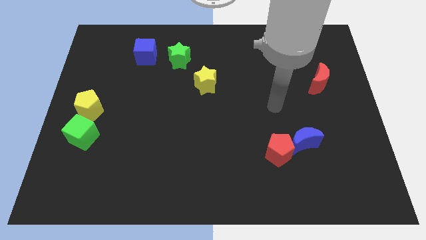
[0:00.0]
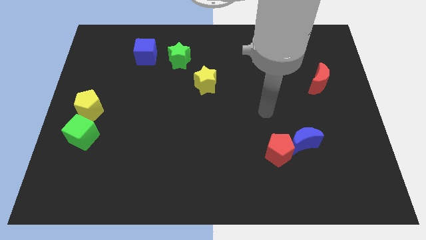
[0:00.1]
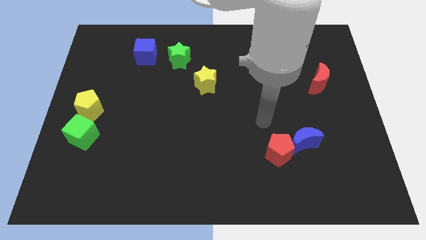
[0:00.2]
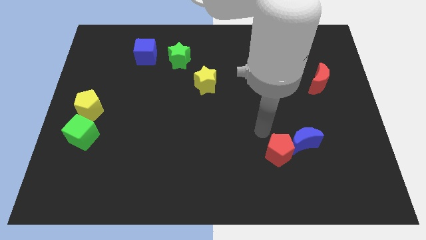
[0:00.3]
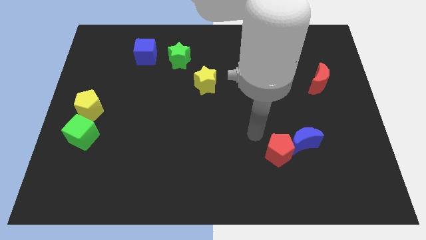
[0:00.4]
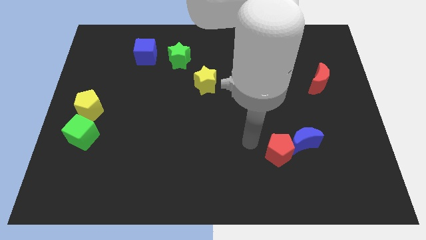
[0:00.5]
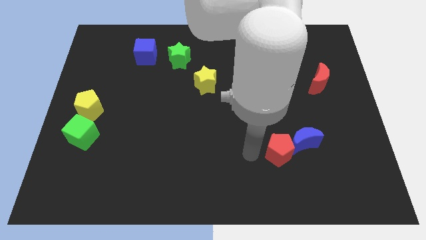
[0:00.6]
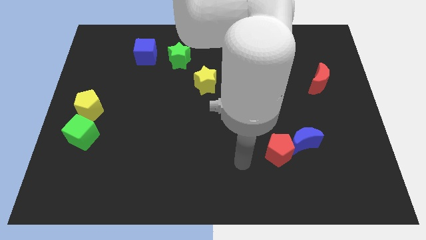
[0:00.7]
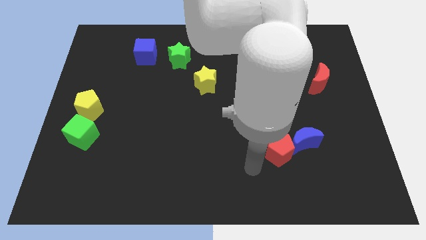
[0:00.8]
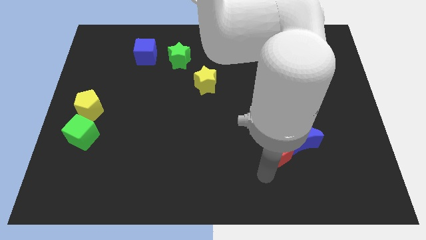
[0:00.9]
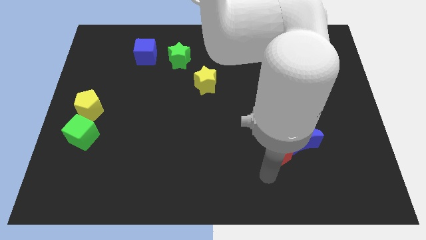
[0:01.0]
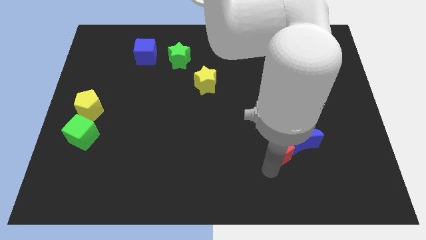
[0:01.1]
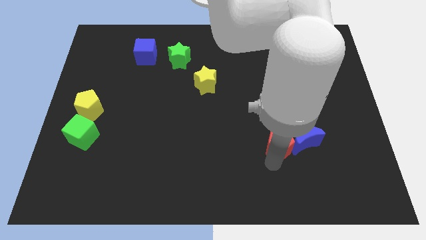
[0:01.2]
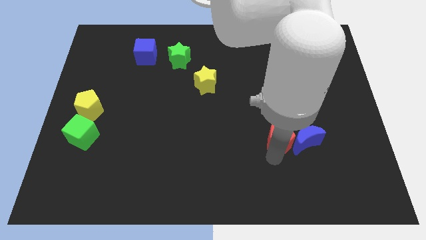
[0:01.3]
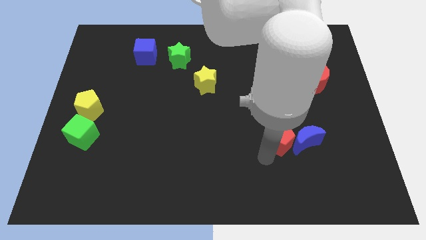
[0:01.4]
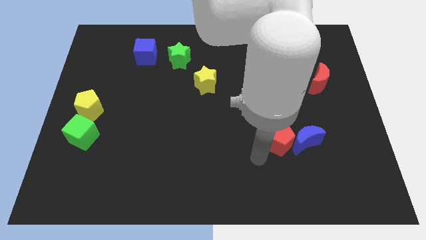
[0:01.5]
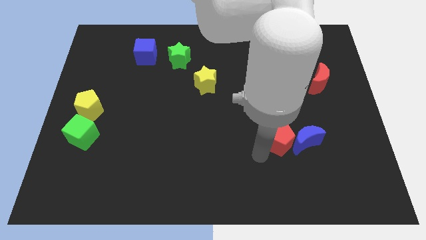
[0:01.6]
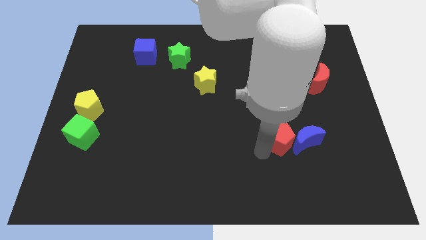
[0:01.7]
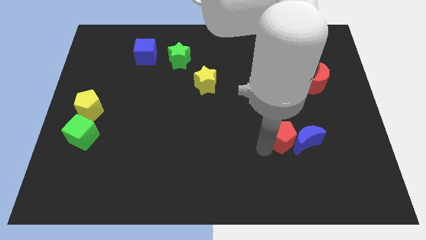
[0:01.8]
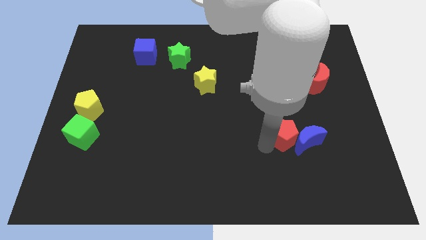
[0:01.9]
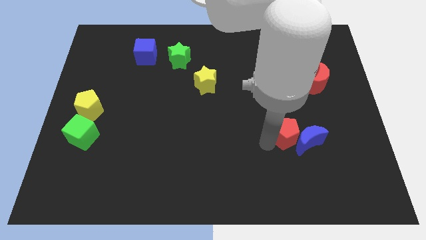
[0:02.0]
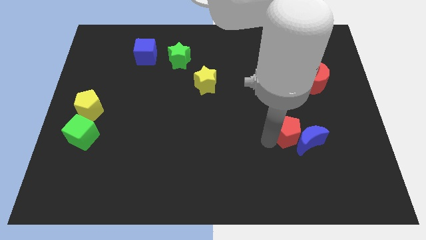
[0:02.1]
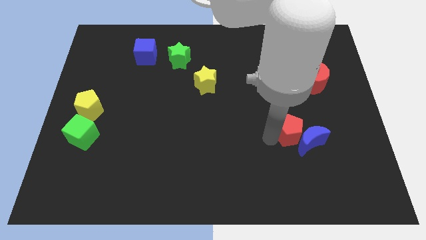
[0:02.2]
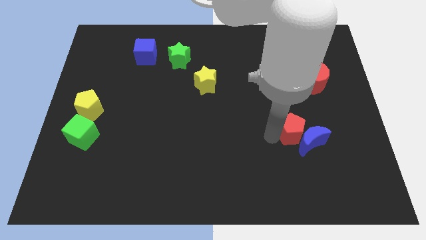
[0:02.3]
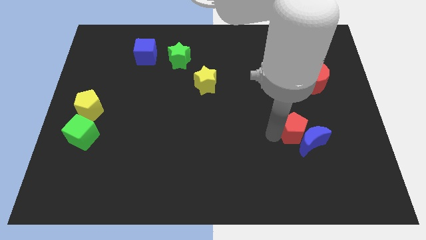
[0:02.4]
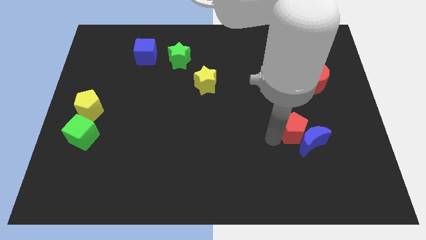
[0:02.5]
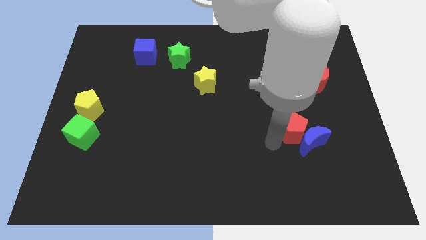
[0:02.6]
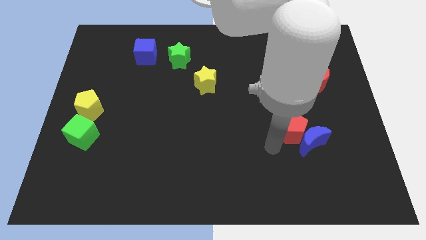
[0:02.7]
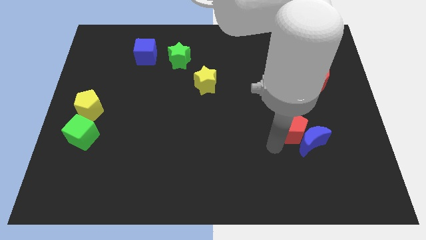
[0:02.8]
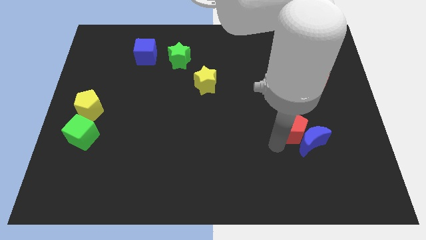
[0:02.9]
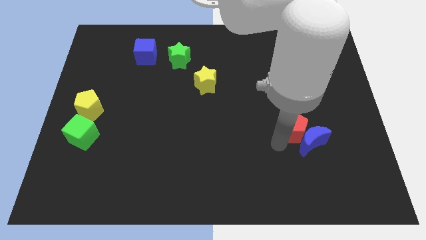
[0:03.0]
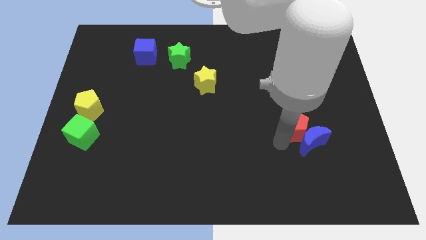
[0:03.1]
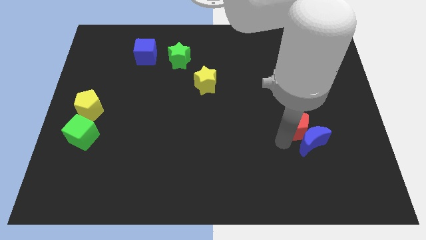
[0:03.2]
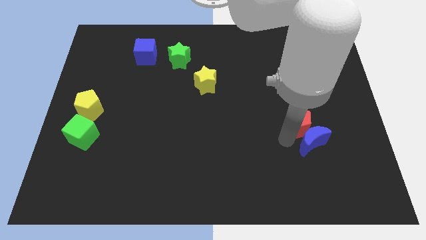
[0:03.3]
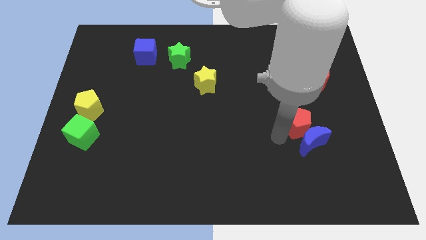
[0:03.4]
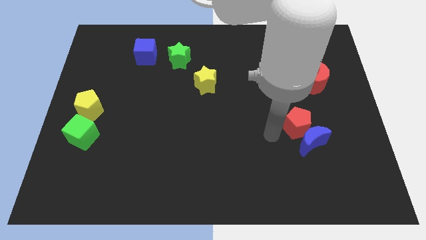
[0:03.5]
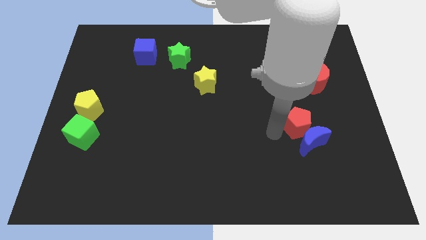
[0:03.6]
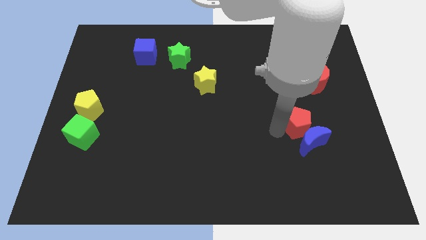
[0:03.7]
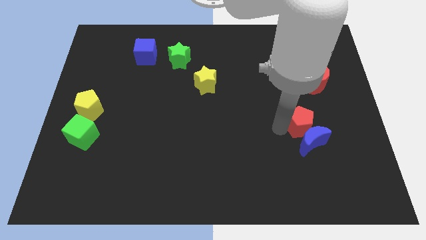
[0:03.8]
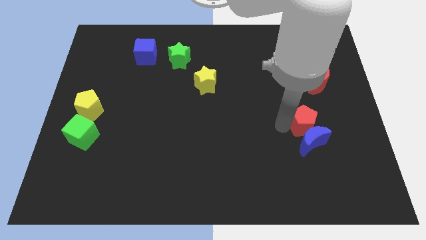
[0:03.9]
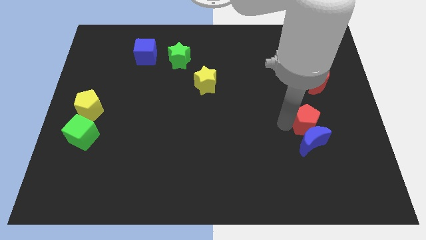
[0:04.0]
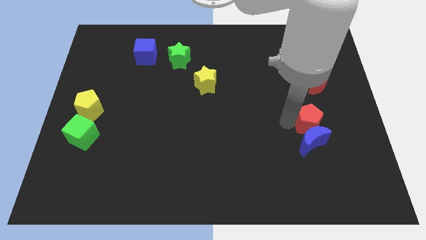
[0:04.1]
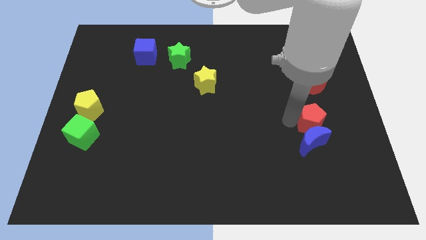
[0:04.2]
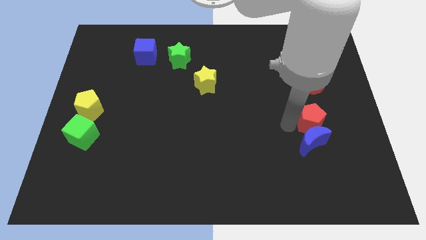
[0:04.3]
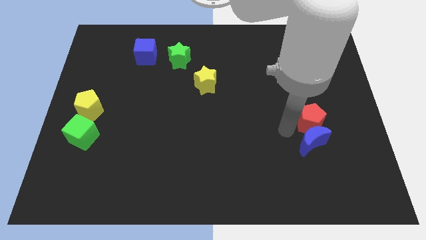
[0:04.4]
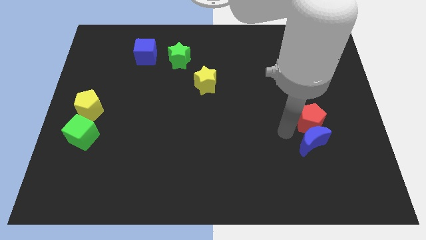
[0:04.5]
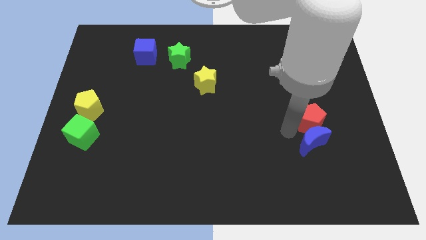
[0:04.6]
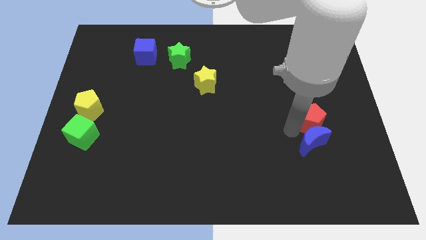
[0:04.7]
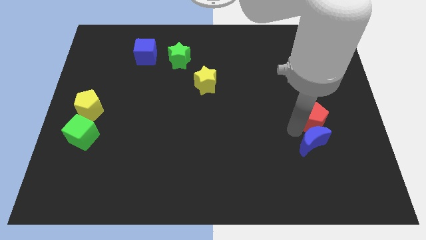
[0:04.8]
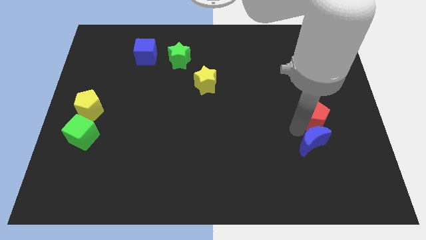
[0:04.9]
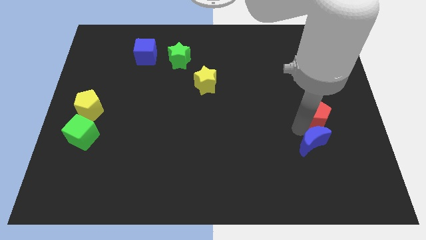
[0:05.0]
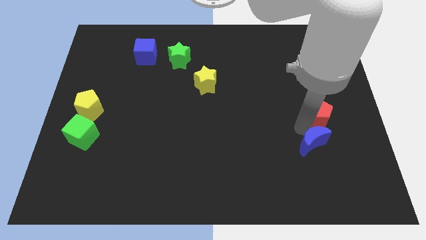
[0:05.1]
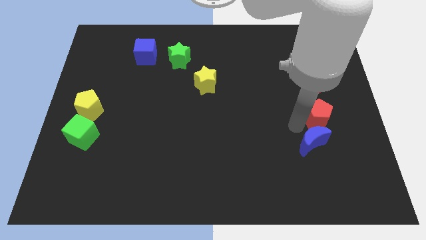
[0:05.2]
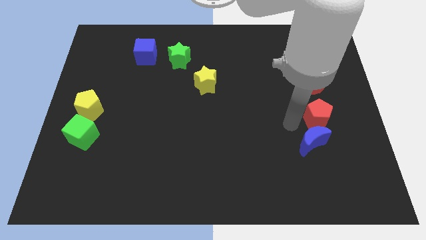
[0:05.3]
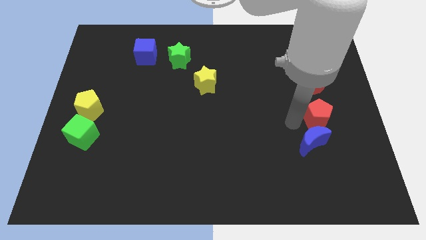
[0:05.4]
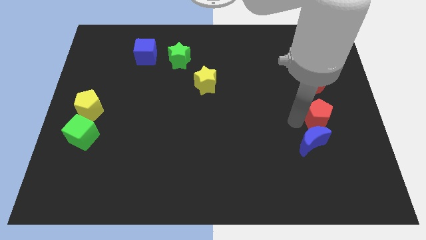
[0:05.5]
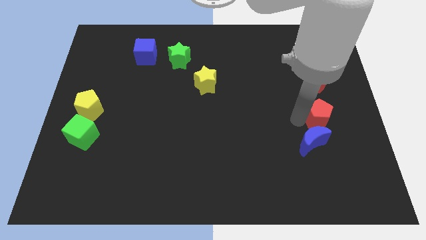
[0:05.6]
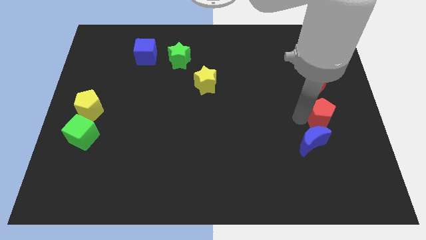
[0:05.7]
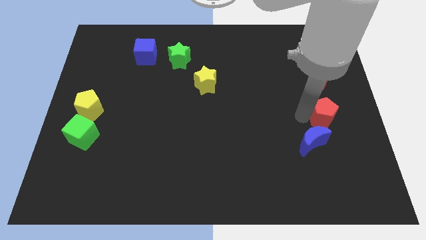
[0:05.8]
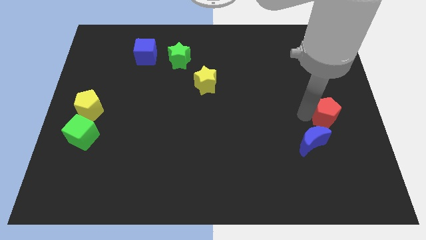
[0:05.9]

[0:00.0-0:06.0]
push the red pentagon to the right side of the board

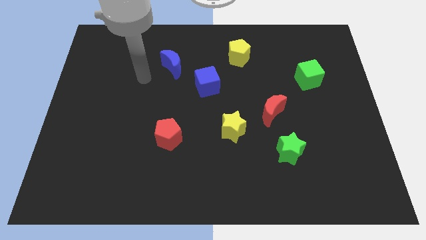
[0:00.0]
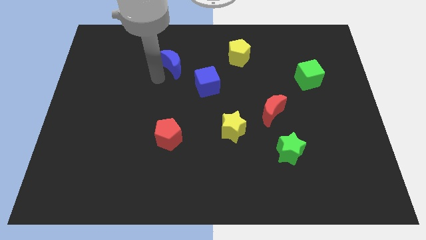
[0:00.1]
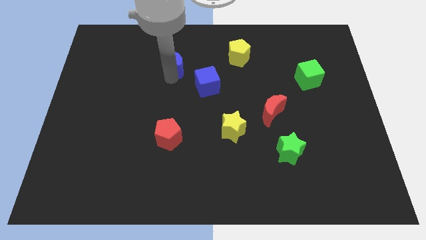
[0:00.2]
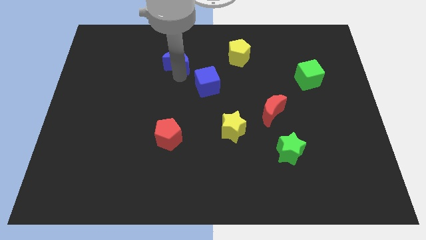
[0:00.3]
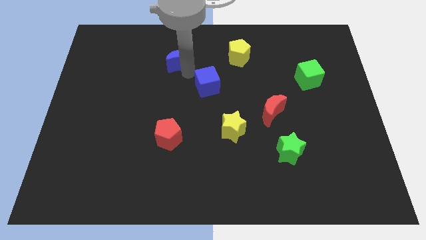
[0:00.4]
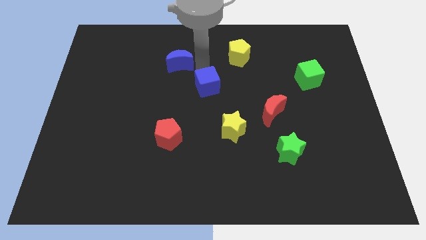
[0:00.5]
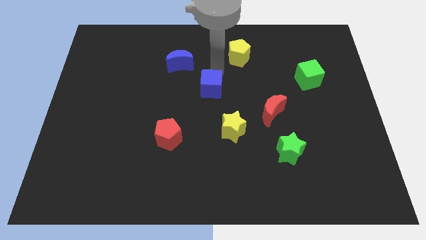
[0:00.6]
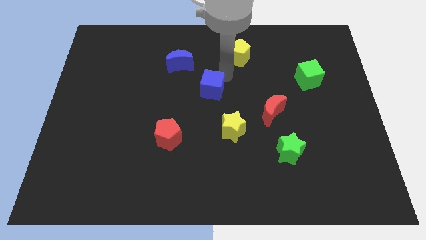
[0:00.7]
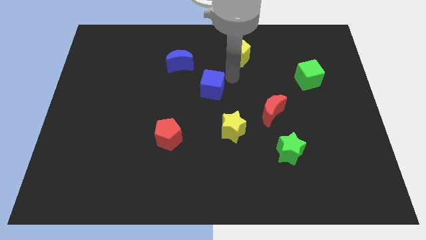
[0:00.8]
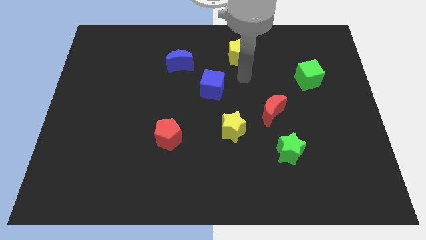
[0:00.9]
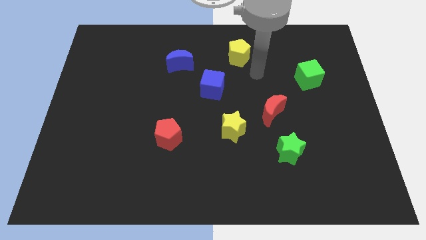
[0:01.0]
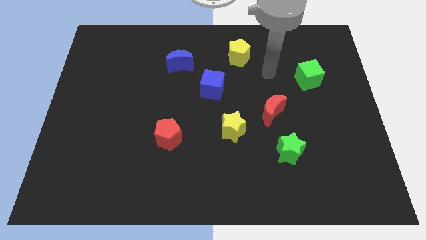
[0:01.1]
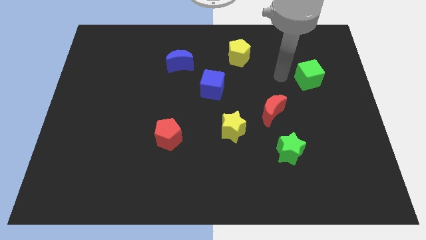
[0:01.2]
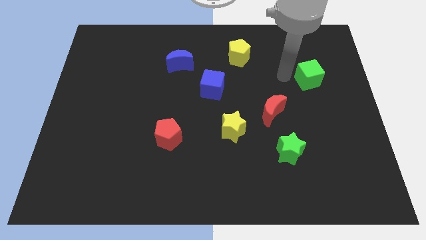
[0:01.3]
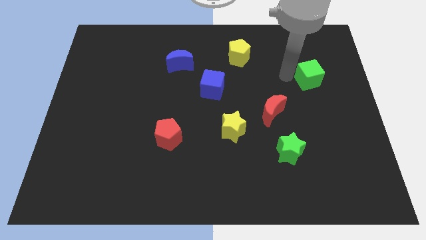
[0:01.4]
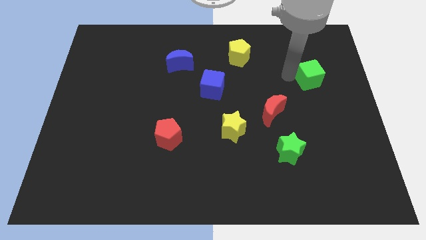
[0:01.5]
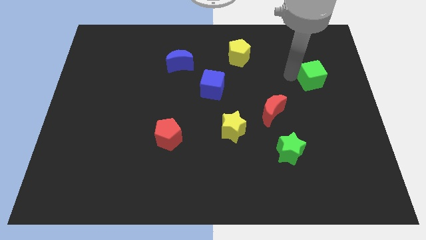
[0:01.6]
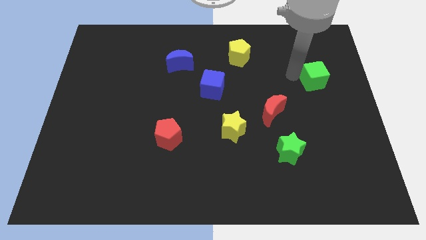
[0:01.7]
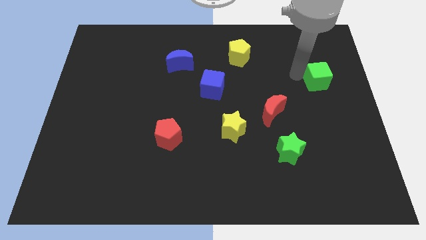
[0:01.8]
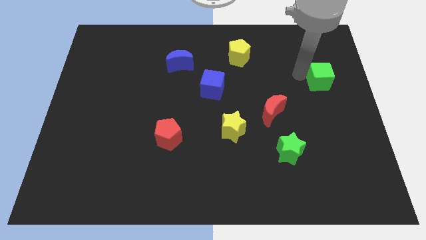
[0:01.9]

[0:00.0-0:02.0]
slide the green cube to the right side of the board

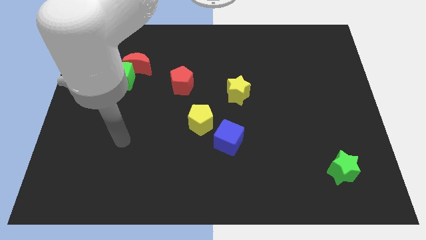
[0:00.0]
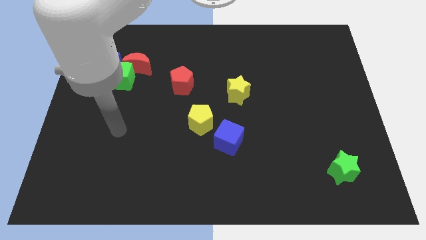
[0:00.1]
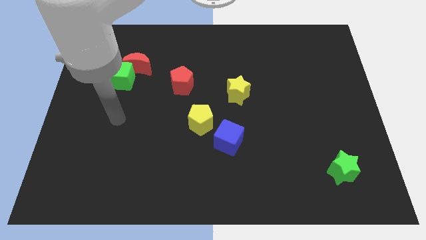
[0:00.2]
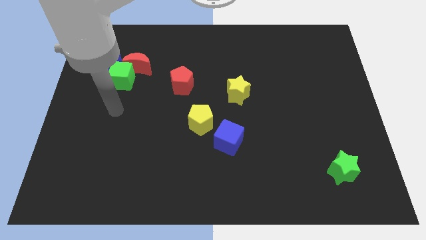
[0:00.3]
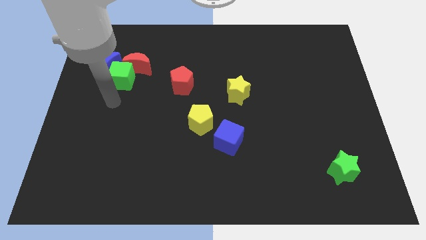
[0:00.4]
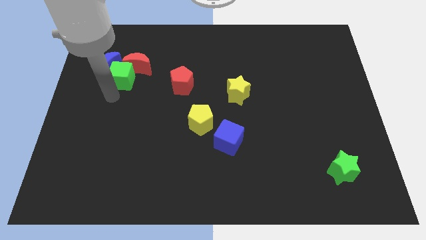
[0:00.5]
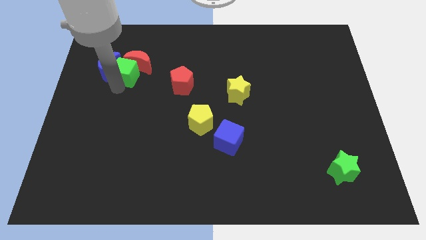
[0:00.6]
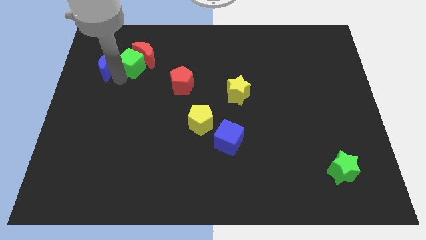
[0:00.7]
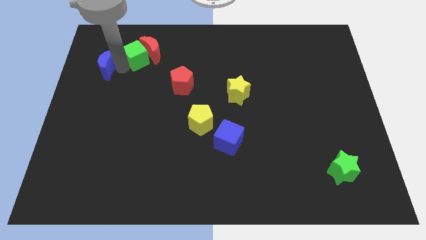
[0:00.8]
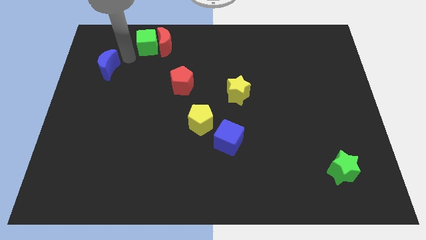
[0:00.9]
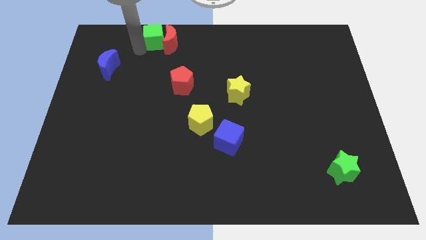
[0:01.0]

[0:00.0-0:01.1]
push the red moon to the top side
